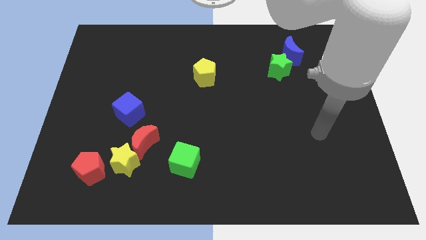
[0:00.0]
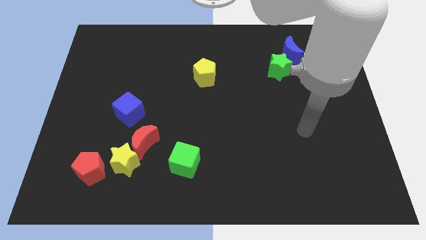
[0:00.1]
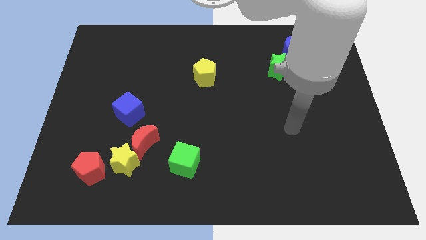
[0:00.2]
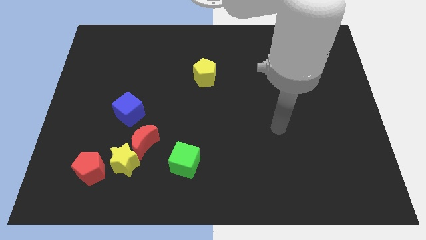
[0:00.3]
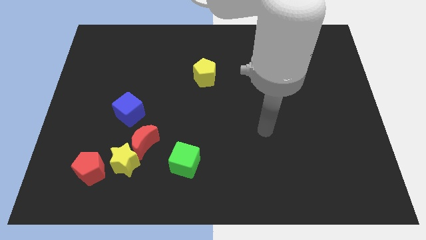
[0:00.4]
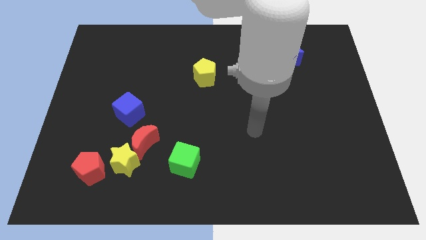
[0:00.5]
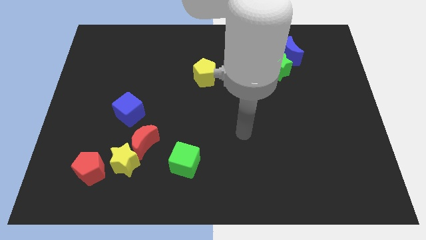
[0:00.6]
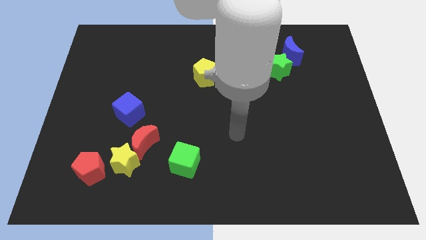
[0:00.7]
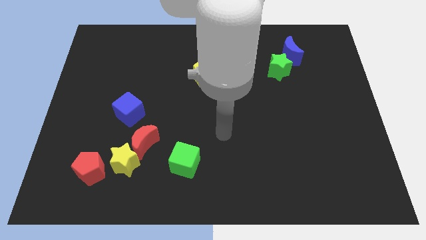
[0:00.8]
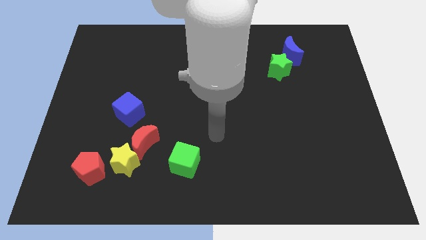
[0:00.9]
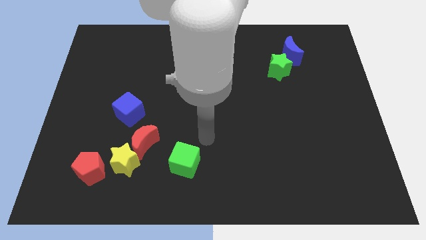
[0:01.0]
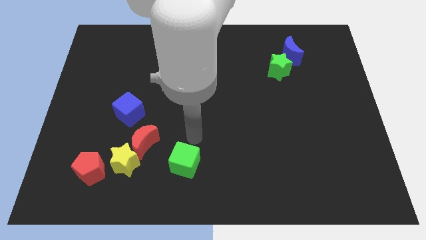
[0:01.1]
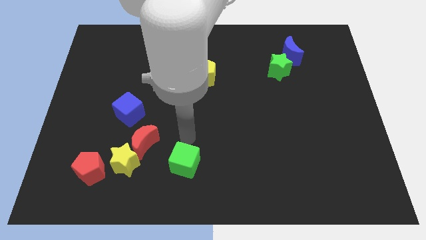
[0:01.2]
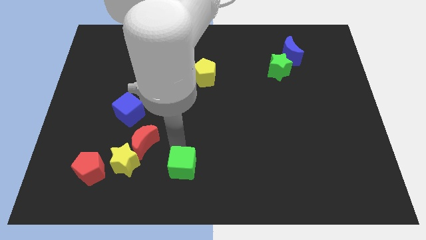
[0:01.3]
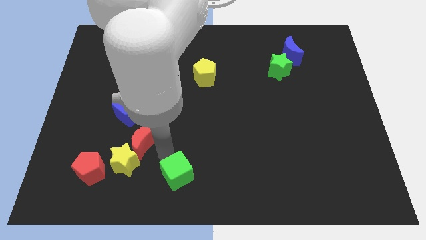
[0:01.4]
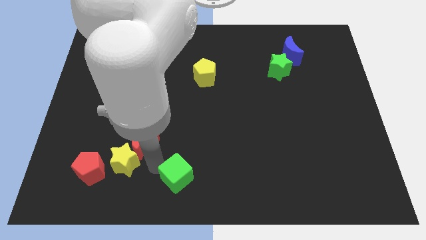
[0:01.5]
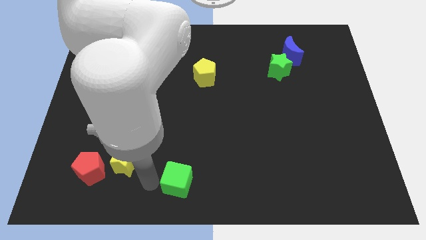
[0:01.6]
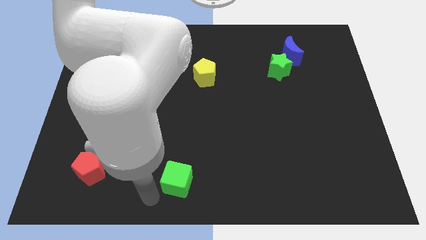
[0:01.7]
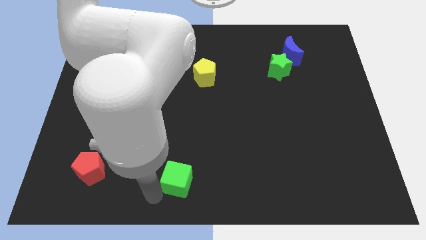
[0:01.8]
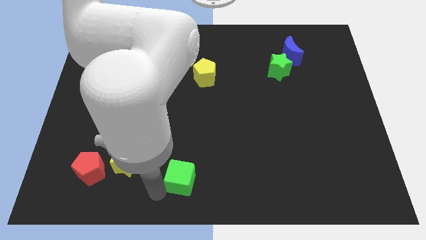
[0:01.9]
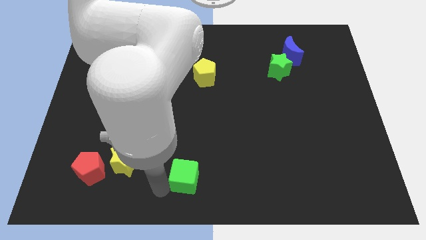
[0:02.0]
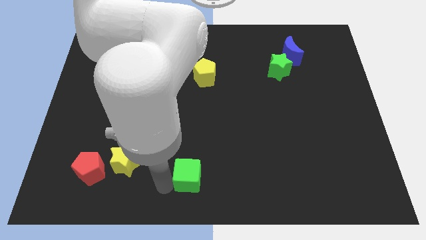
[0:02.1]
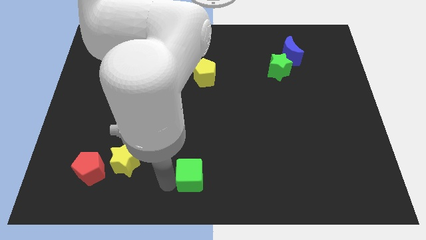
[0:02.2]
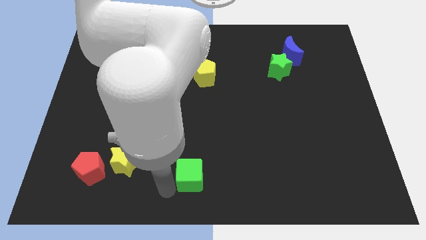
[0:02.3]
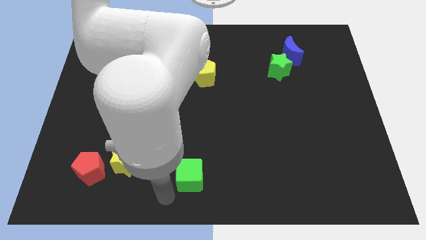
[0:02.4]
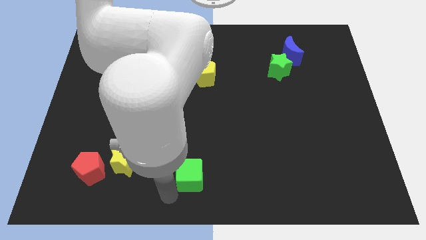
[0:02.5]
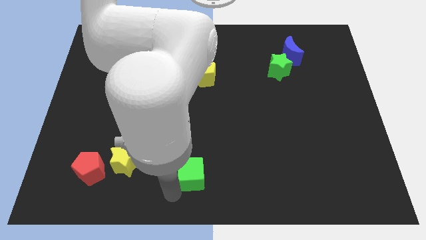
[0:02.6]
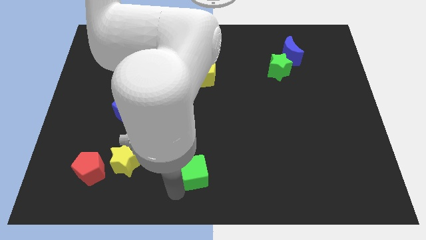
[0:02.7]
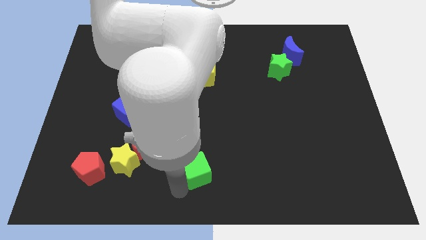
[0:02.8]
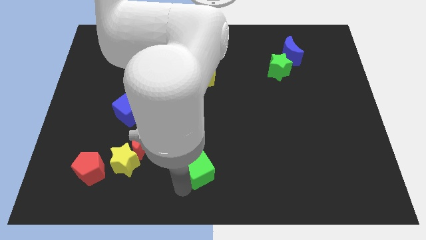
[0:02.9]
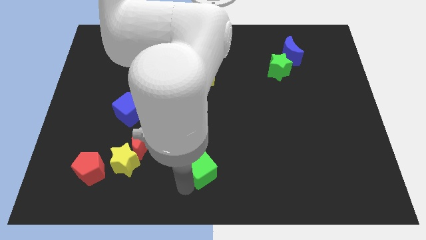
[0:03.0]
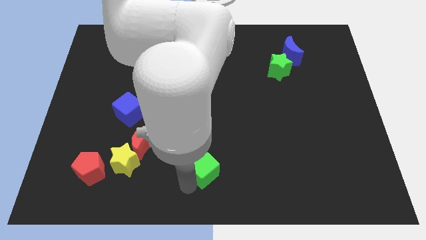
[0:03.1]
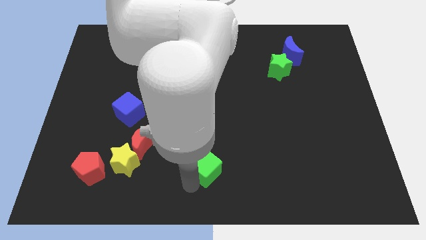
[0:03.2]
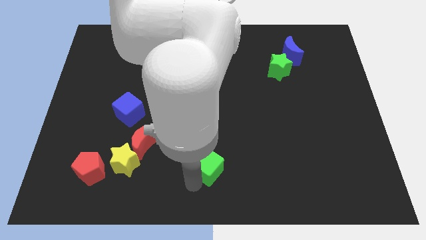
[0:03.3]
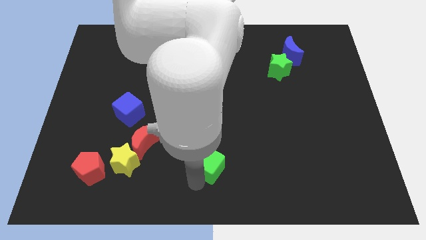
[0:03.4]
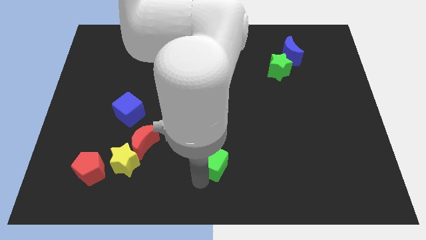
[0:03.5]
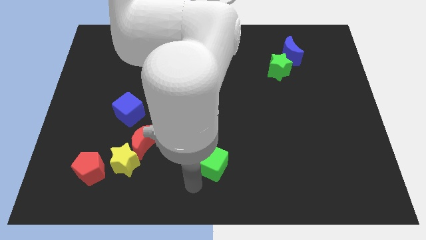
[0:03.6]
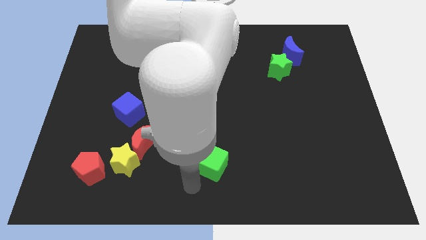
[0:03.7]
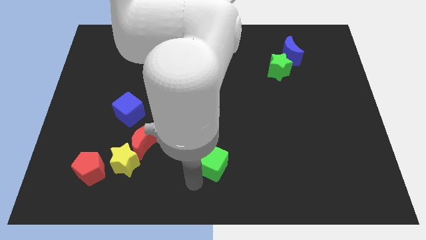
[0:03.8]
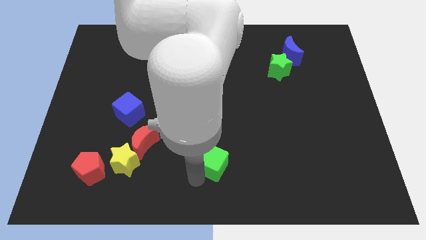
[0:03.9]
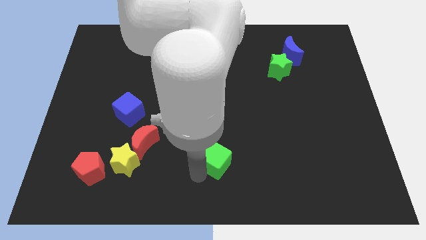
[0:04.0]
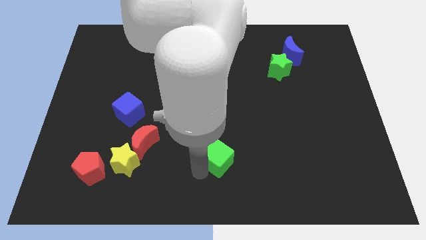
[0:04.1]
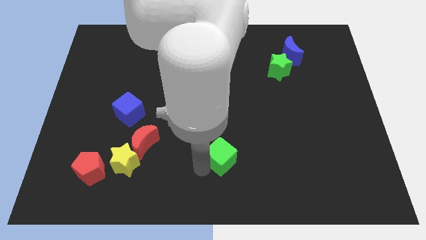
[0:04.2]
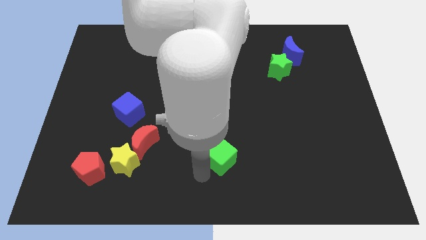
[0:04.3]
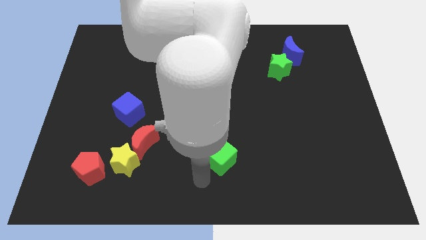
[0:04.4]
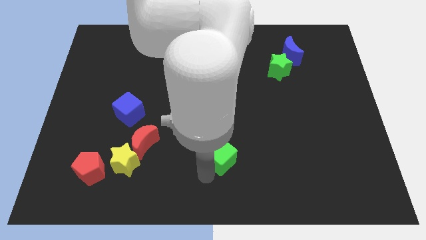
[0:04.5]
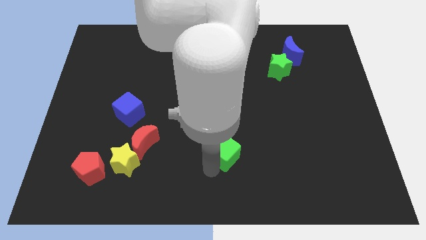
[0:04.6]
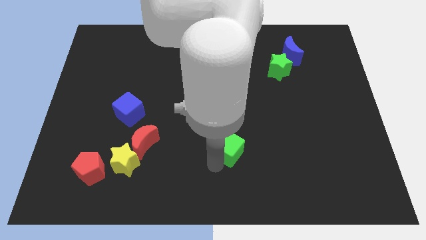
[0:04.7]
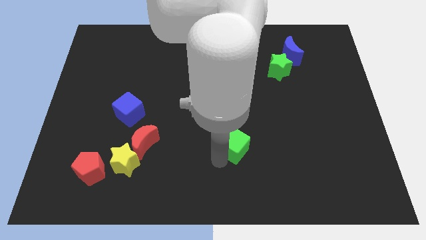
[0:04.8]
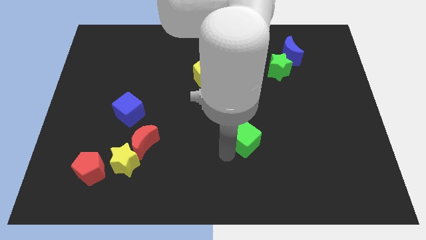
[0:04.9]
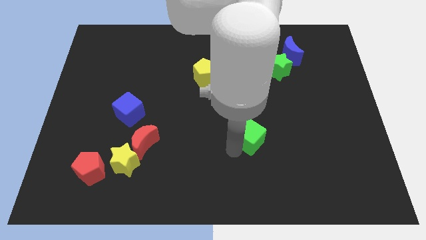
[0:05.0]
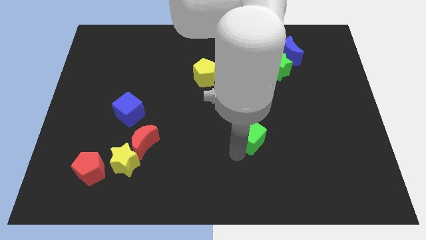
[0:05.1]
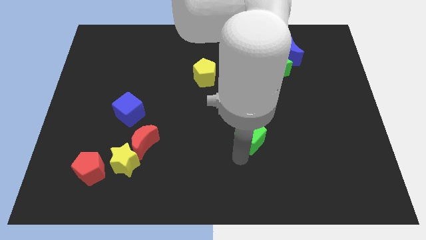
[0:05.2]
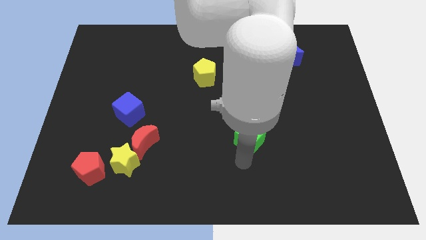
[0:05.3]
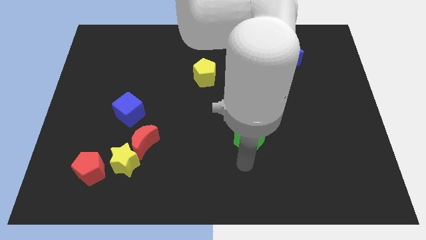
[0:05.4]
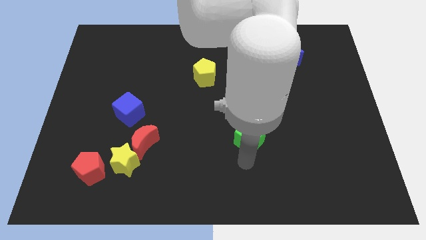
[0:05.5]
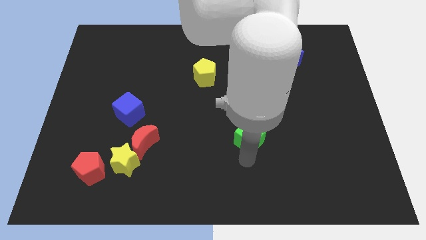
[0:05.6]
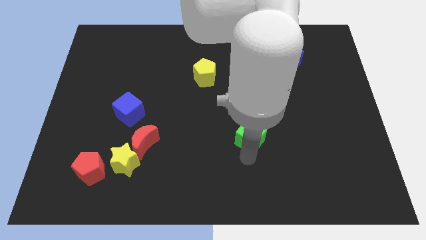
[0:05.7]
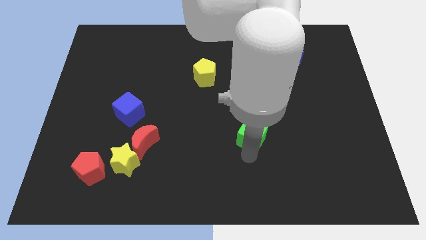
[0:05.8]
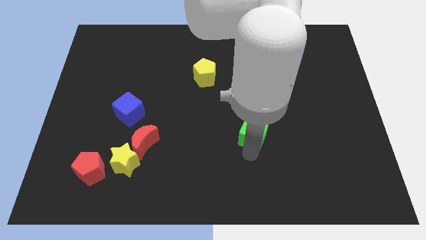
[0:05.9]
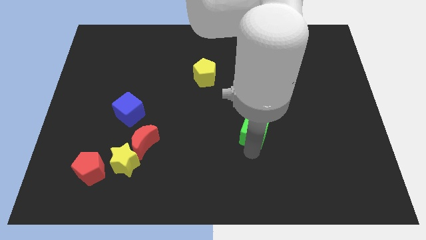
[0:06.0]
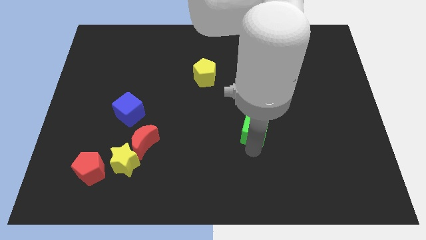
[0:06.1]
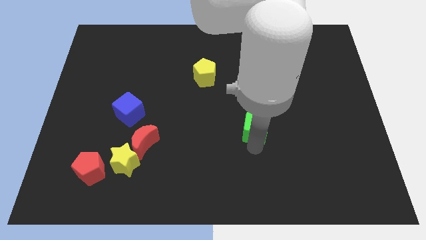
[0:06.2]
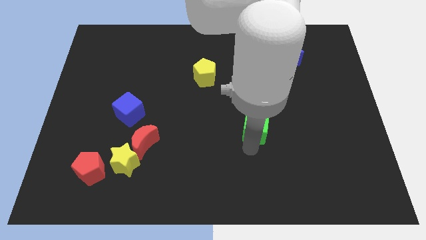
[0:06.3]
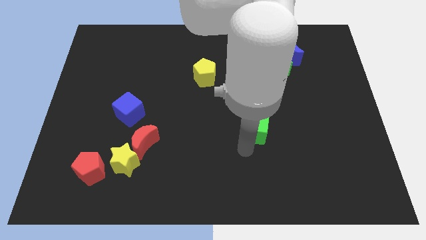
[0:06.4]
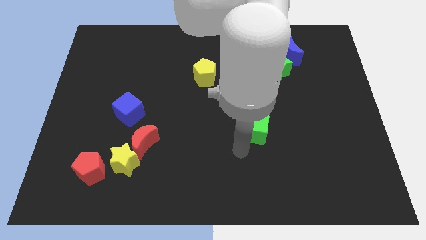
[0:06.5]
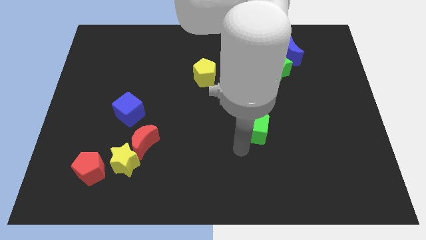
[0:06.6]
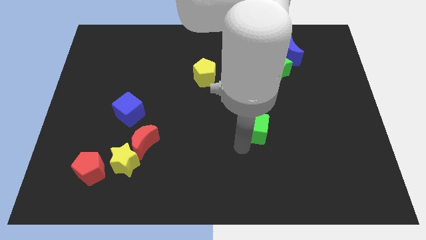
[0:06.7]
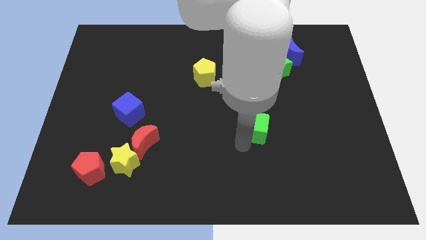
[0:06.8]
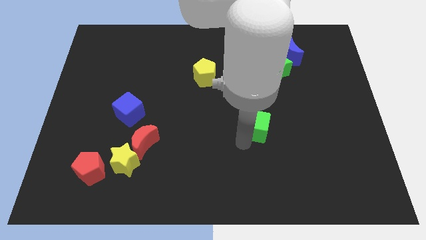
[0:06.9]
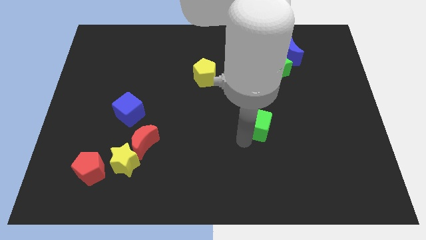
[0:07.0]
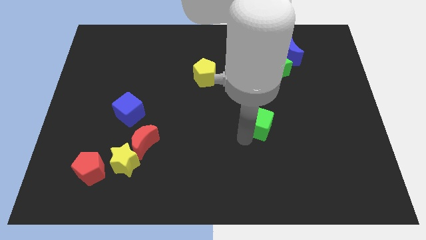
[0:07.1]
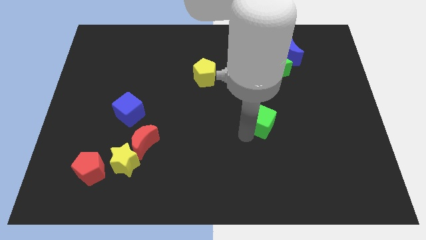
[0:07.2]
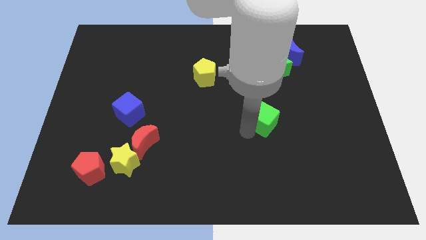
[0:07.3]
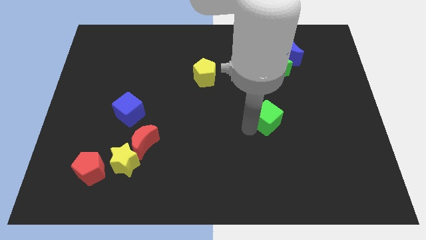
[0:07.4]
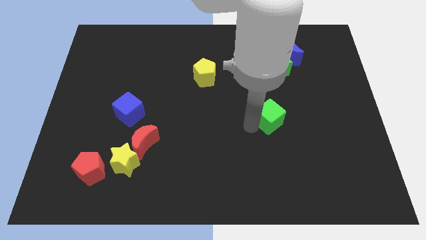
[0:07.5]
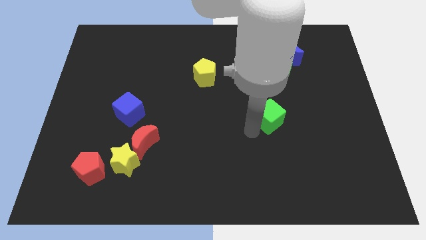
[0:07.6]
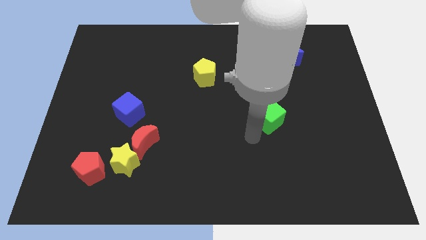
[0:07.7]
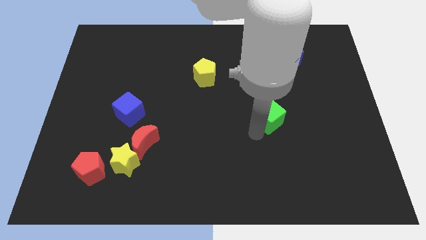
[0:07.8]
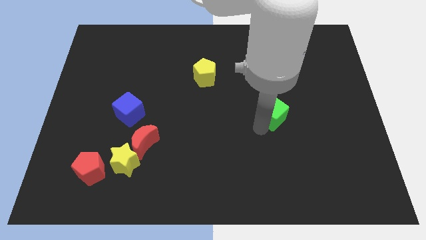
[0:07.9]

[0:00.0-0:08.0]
put the green cube to the bottom side of the green star
